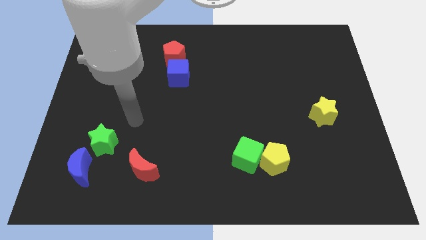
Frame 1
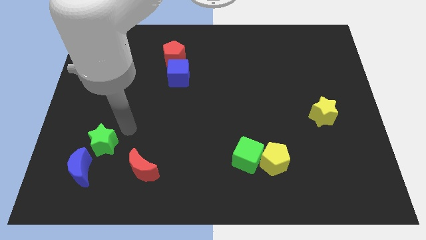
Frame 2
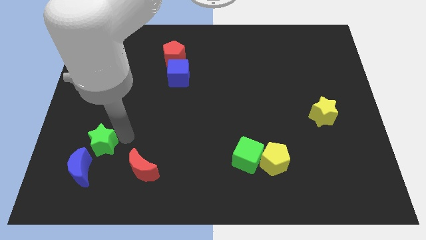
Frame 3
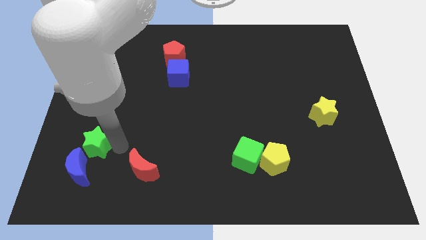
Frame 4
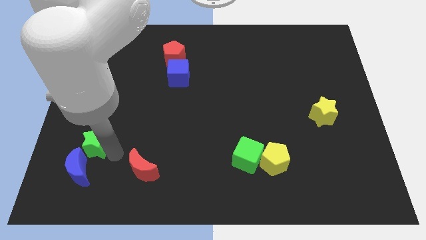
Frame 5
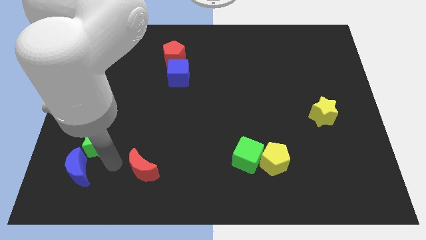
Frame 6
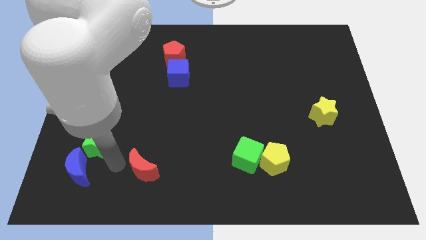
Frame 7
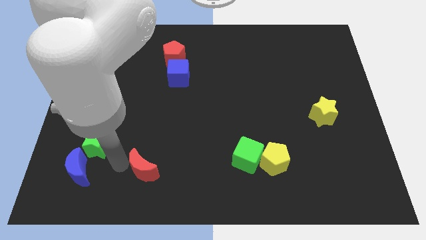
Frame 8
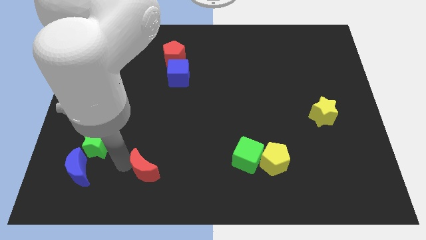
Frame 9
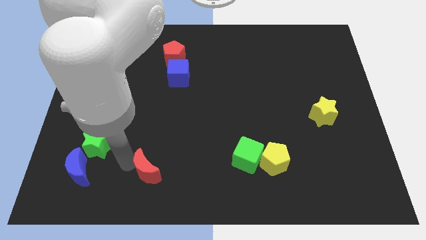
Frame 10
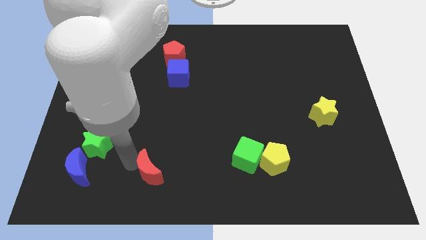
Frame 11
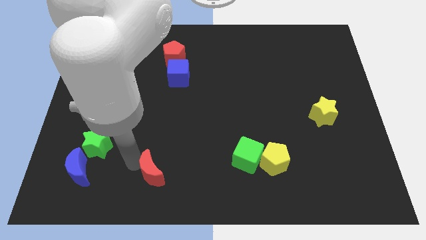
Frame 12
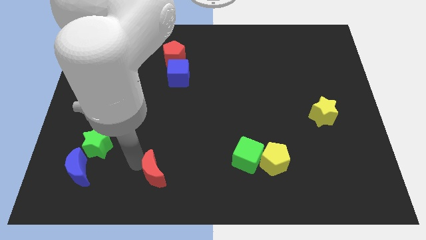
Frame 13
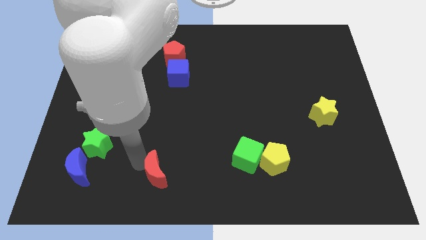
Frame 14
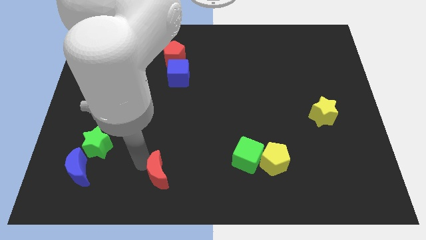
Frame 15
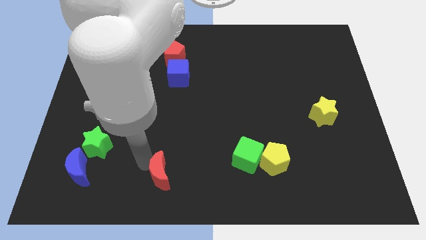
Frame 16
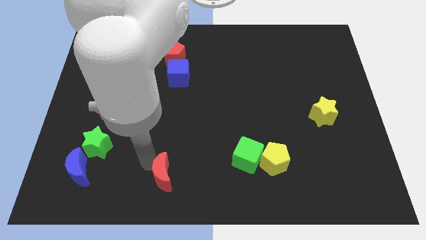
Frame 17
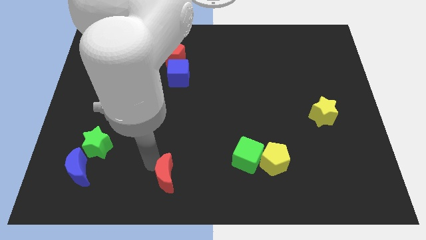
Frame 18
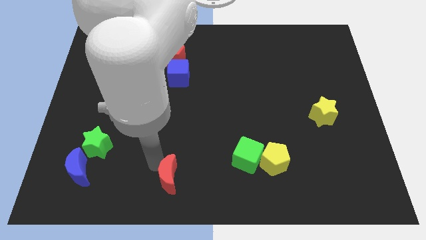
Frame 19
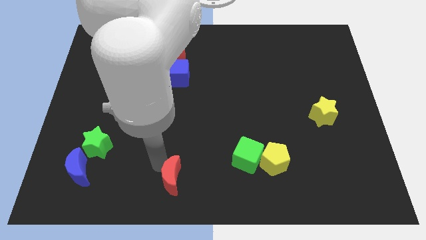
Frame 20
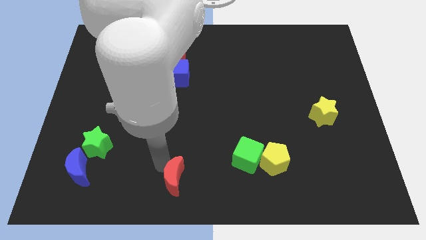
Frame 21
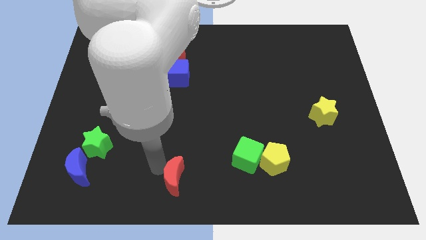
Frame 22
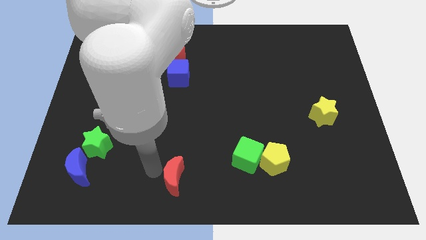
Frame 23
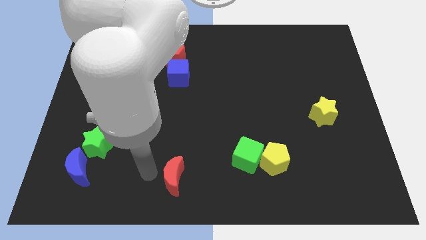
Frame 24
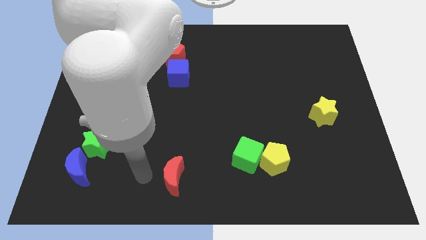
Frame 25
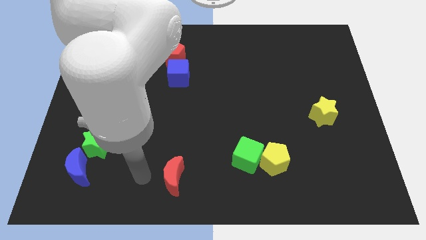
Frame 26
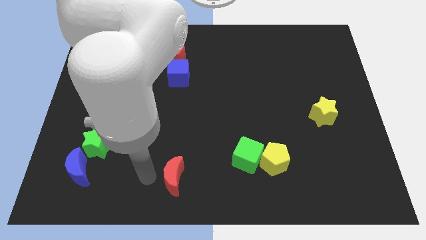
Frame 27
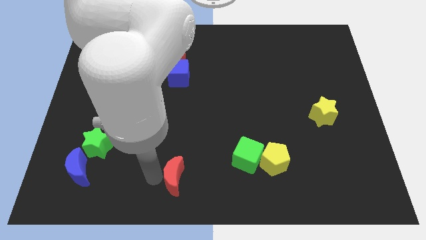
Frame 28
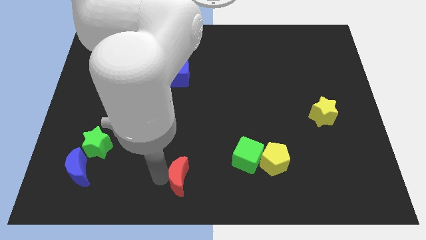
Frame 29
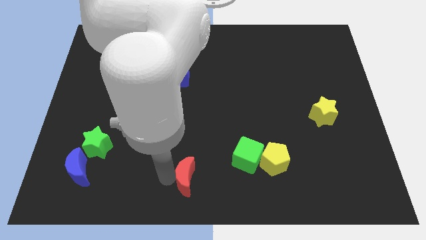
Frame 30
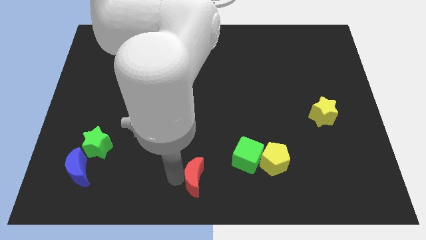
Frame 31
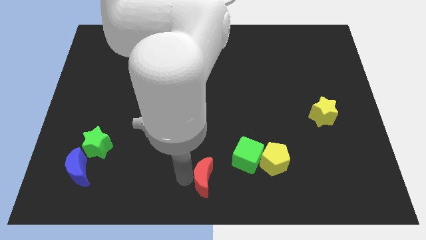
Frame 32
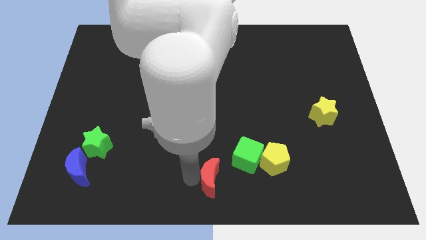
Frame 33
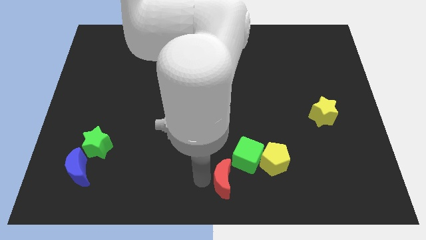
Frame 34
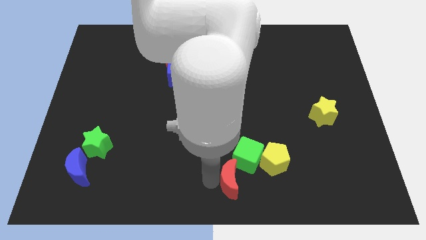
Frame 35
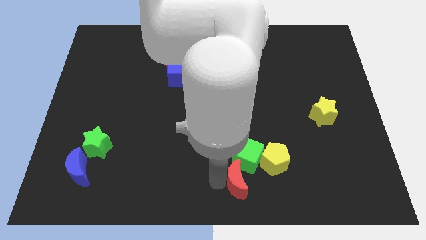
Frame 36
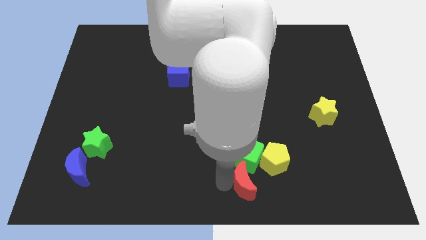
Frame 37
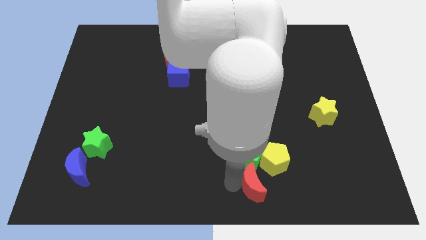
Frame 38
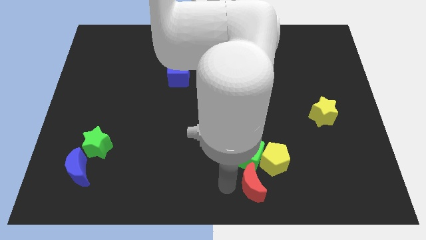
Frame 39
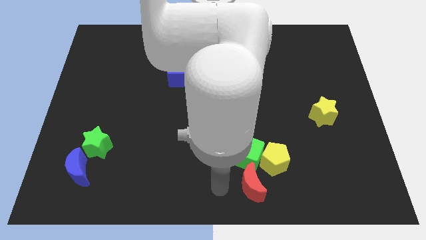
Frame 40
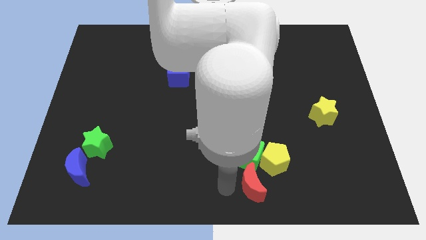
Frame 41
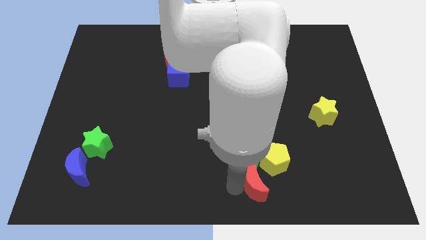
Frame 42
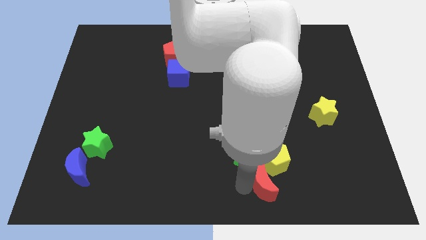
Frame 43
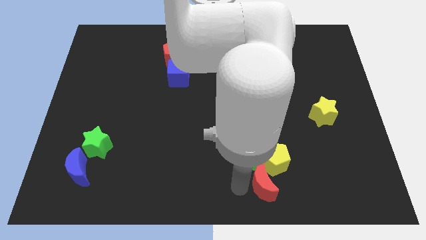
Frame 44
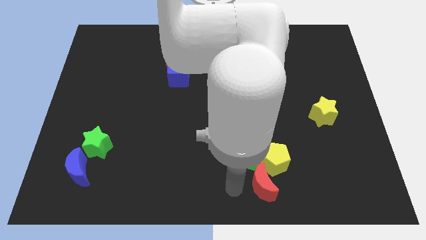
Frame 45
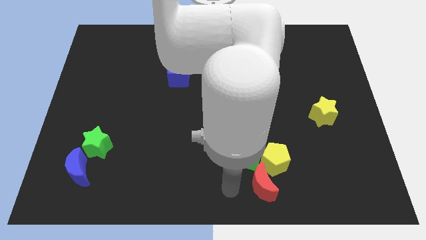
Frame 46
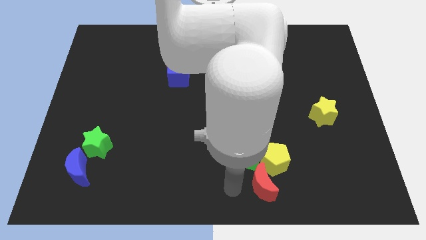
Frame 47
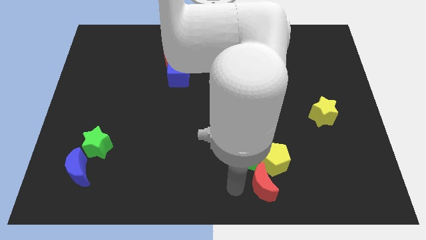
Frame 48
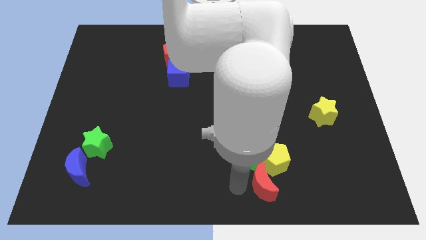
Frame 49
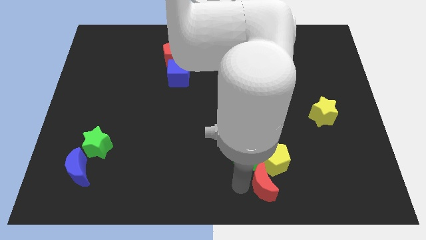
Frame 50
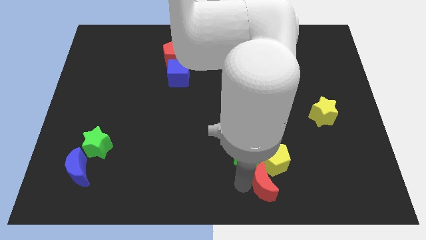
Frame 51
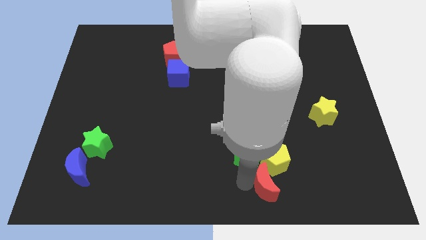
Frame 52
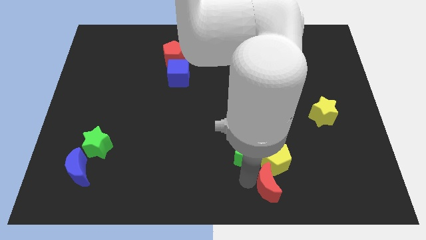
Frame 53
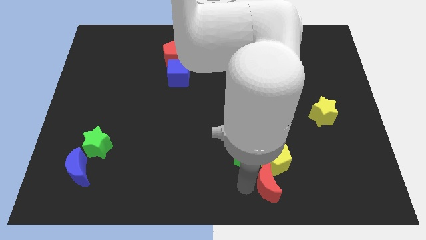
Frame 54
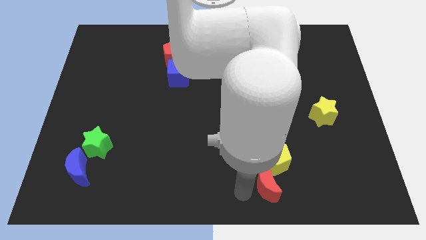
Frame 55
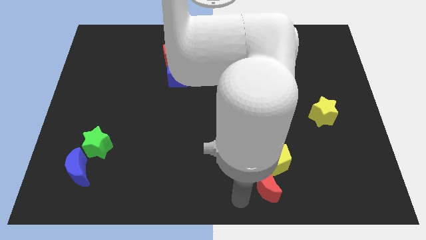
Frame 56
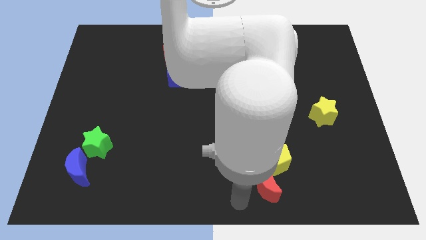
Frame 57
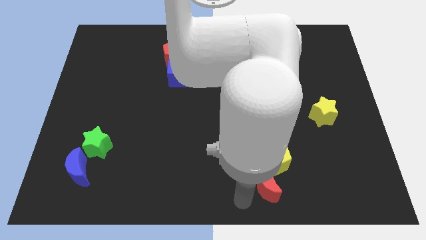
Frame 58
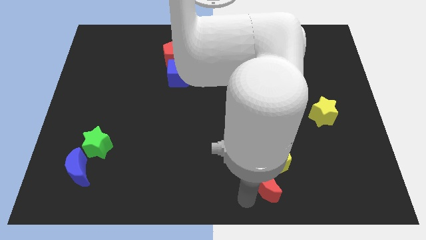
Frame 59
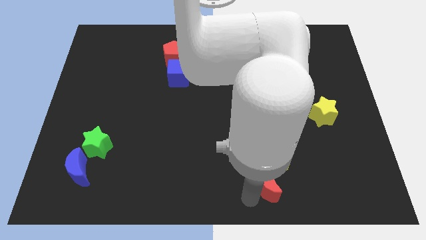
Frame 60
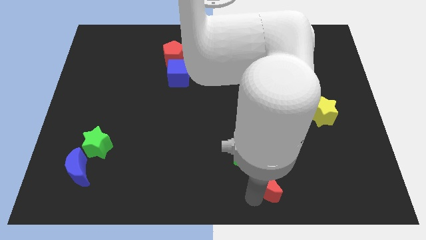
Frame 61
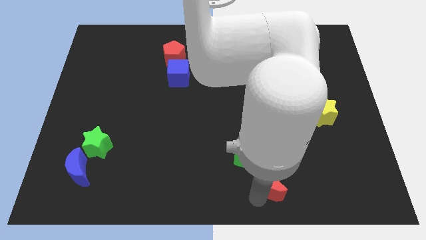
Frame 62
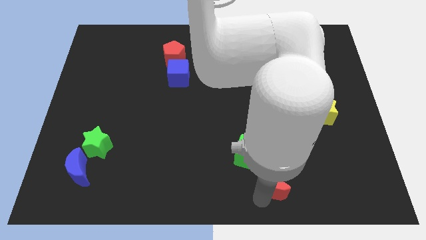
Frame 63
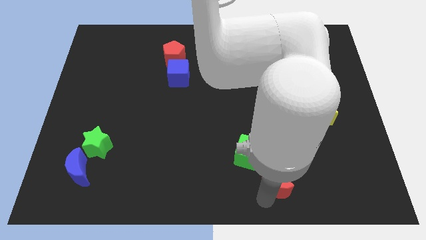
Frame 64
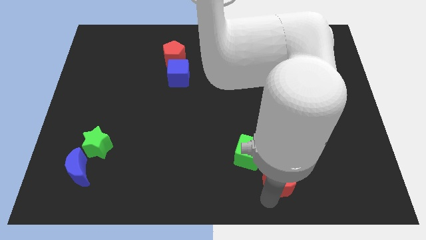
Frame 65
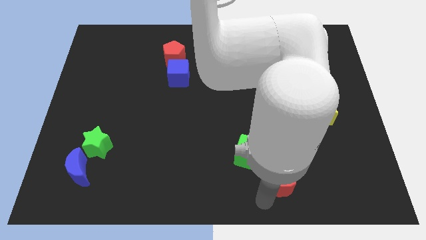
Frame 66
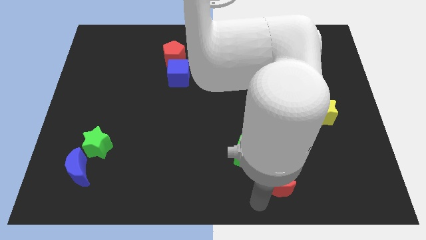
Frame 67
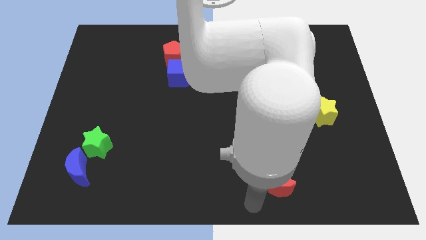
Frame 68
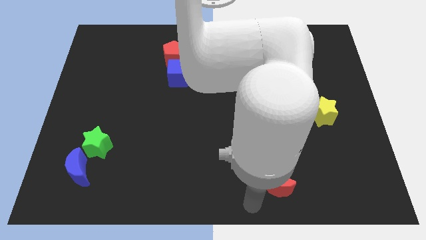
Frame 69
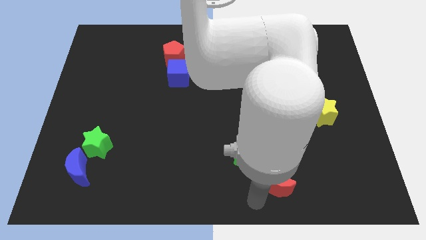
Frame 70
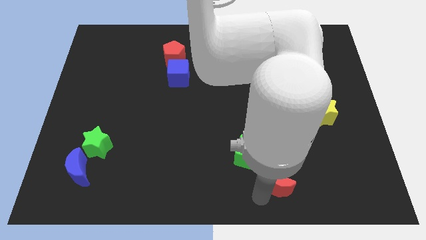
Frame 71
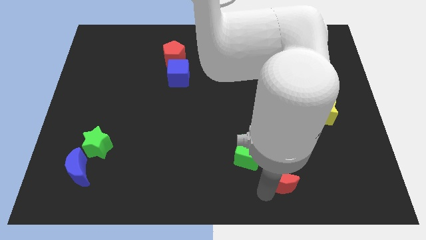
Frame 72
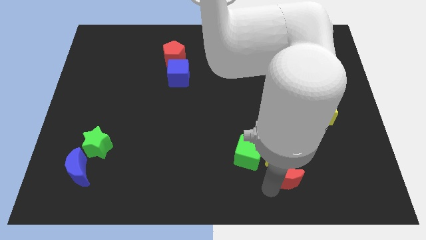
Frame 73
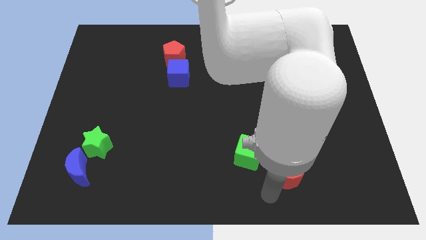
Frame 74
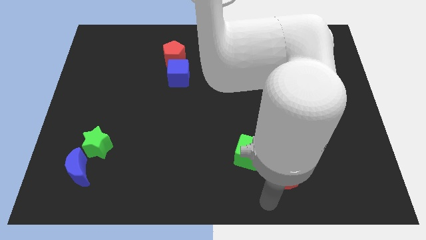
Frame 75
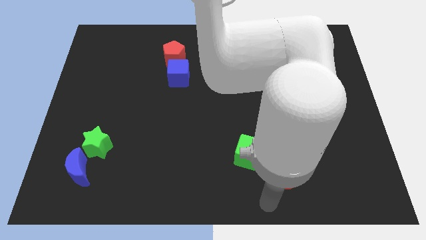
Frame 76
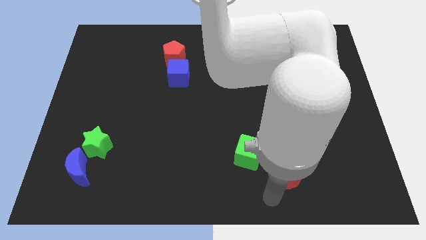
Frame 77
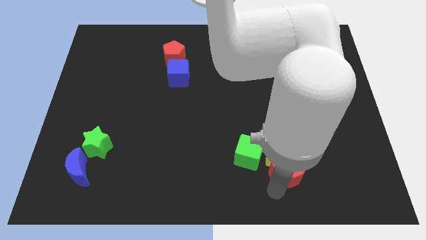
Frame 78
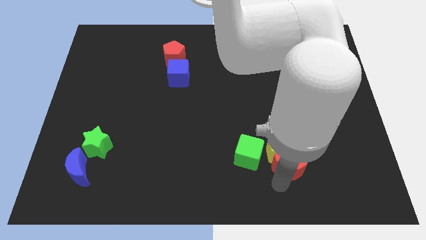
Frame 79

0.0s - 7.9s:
push the red moon to the right side of the green cube
